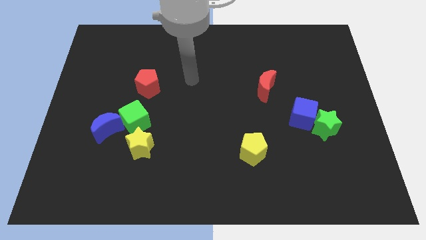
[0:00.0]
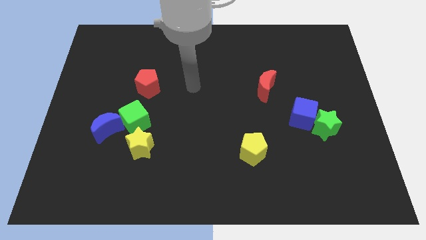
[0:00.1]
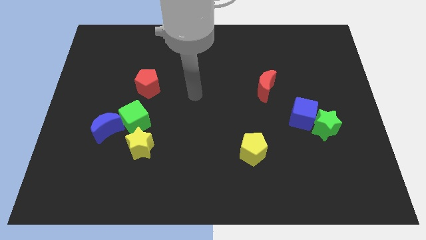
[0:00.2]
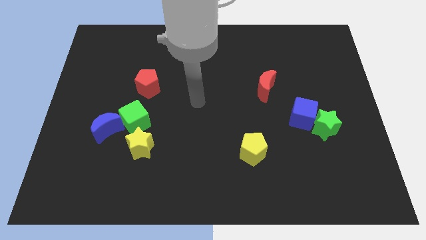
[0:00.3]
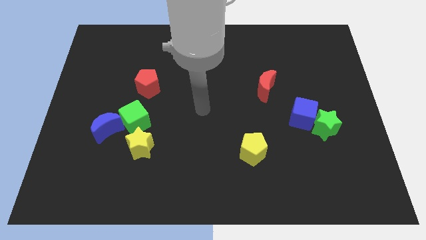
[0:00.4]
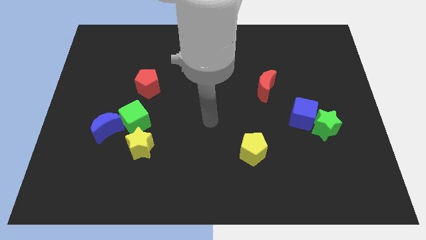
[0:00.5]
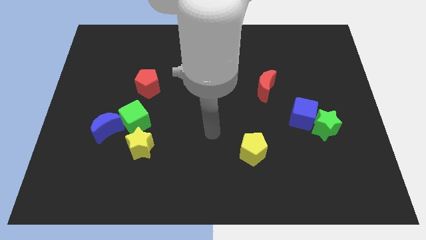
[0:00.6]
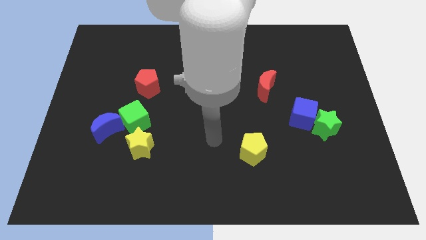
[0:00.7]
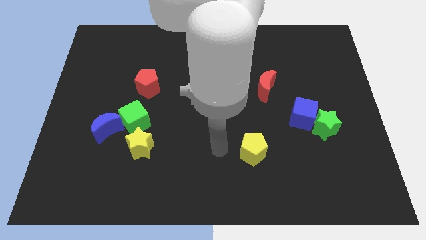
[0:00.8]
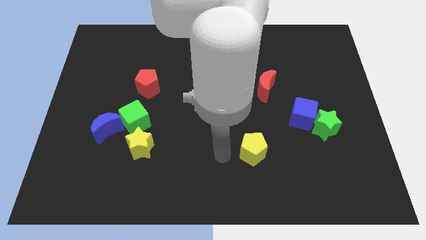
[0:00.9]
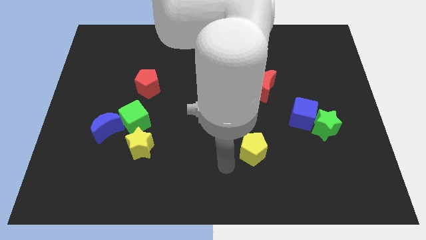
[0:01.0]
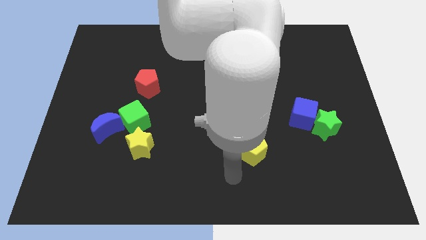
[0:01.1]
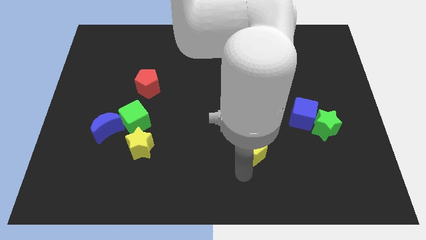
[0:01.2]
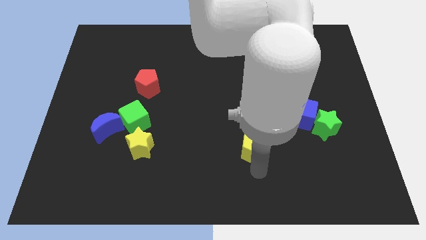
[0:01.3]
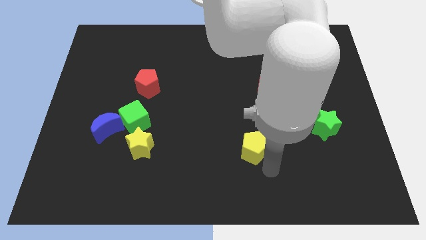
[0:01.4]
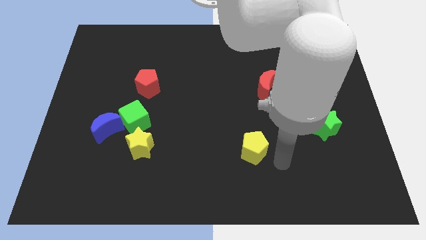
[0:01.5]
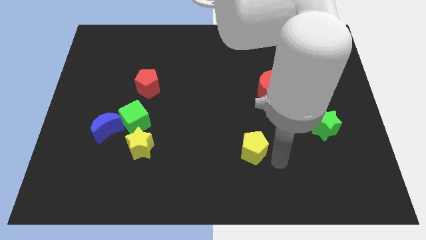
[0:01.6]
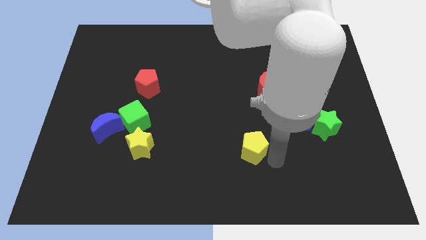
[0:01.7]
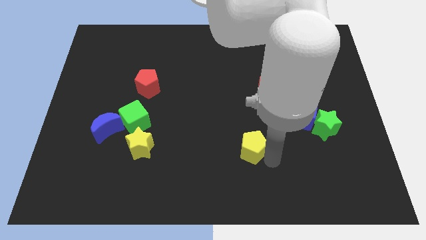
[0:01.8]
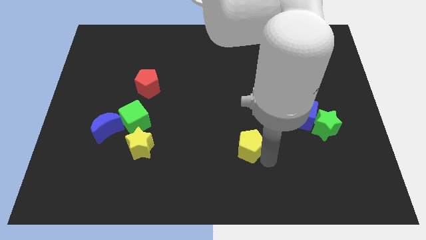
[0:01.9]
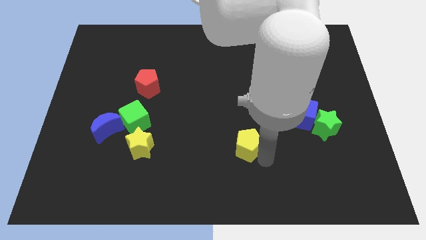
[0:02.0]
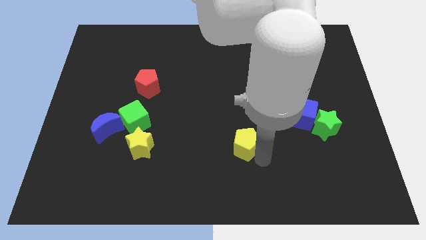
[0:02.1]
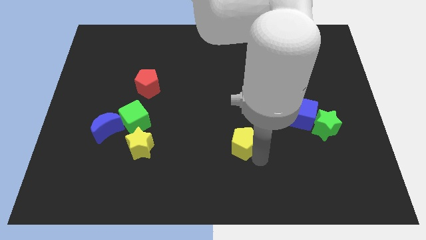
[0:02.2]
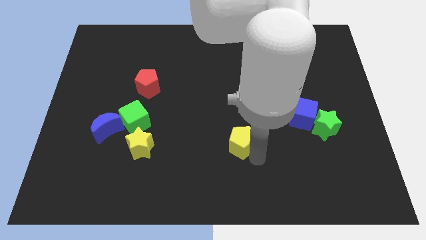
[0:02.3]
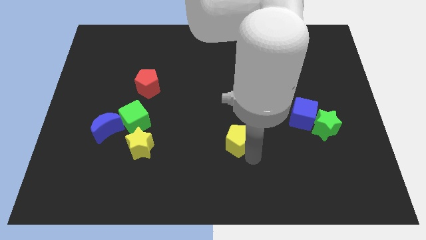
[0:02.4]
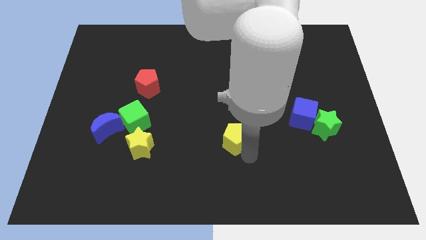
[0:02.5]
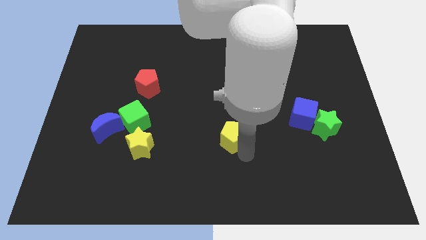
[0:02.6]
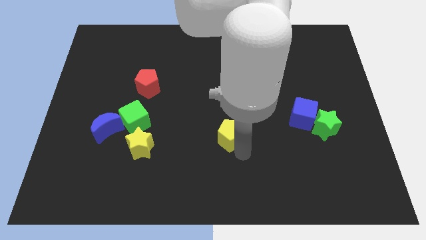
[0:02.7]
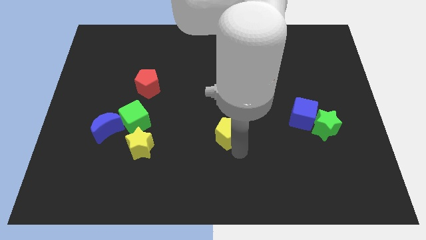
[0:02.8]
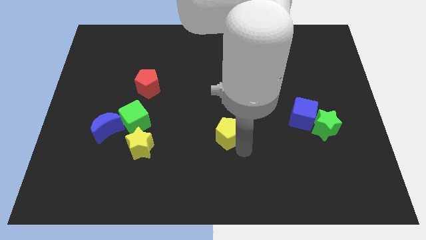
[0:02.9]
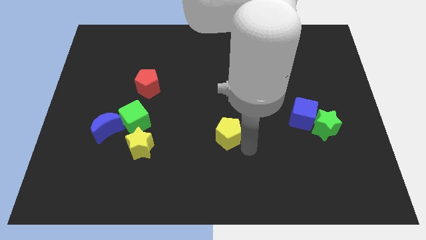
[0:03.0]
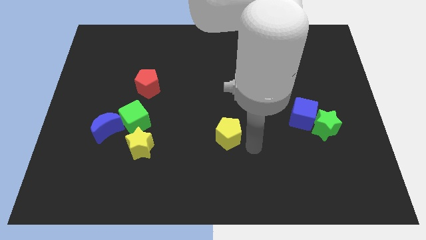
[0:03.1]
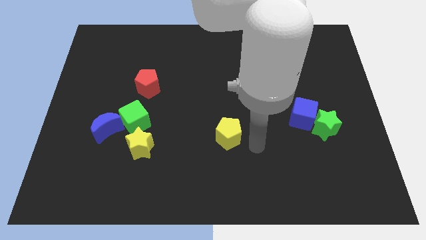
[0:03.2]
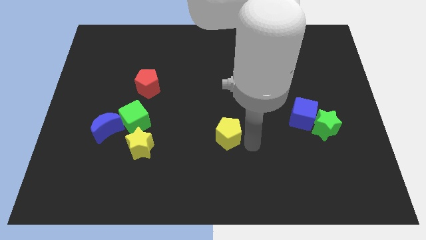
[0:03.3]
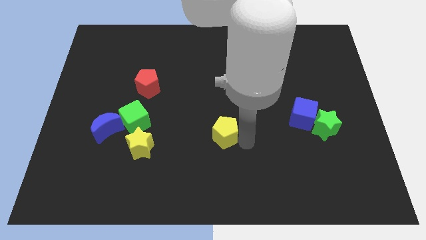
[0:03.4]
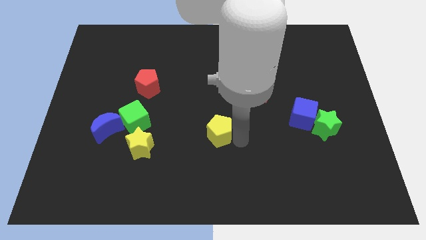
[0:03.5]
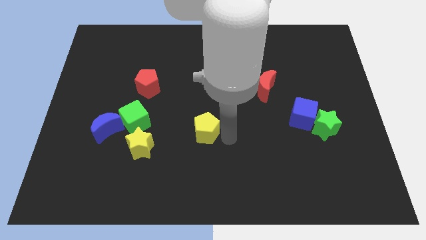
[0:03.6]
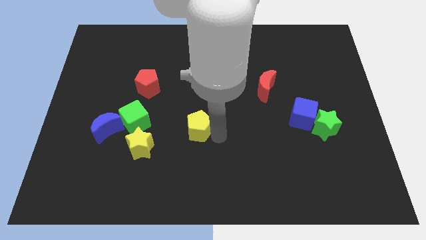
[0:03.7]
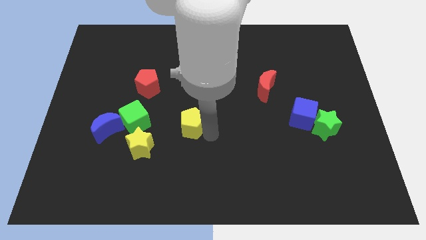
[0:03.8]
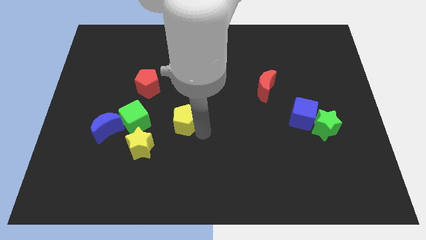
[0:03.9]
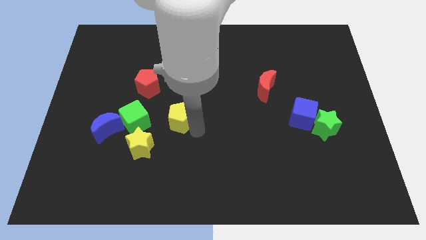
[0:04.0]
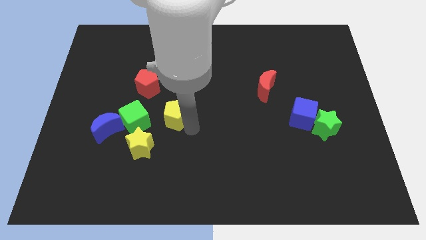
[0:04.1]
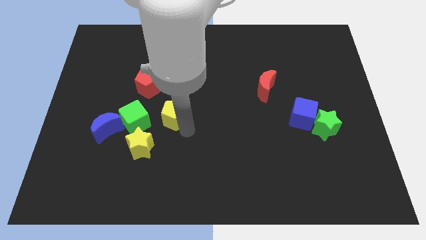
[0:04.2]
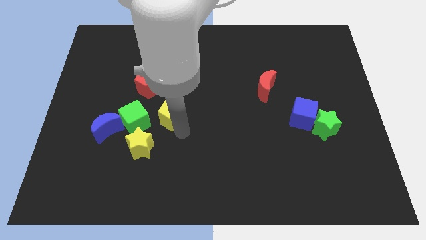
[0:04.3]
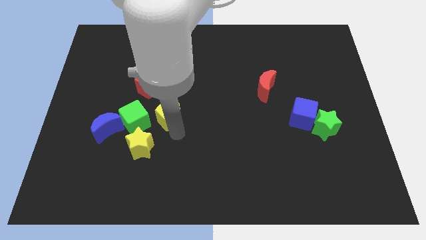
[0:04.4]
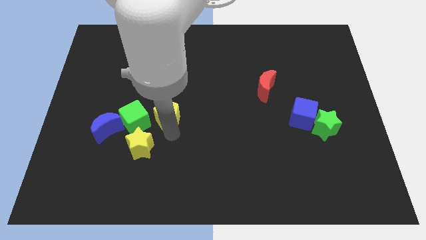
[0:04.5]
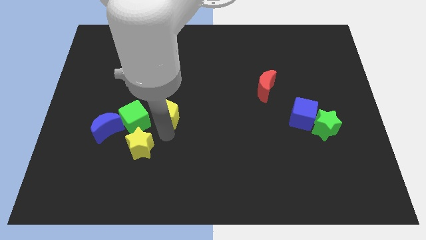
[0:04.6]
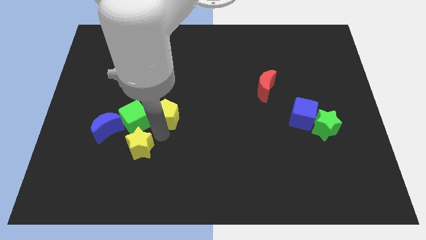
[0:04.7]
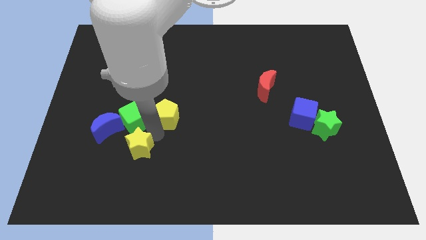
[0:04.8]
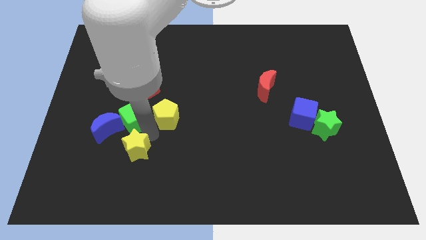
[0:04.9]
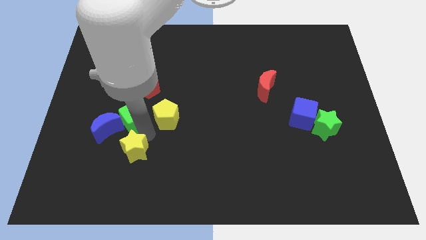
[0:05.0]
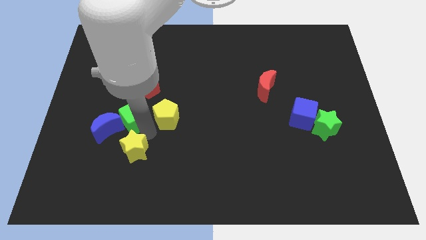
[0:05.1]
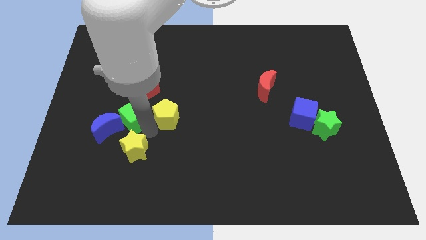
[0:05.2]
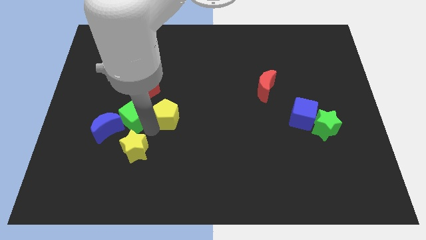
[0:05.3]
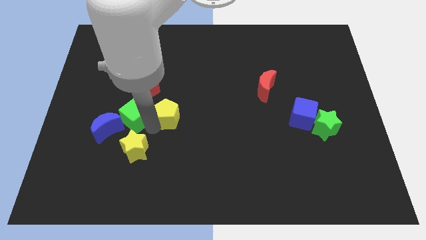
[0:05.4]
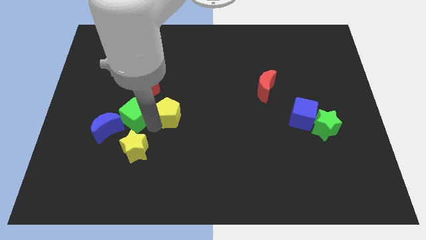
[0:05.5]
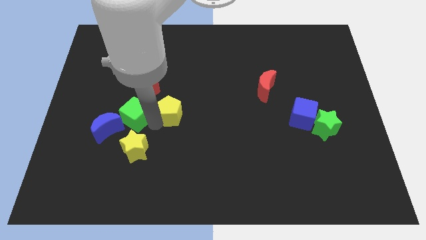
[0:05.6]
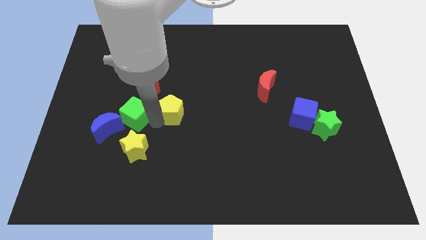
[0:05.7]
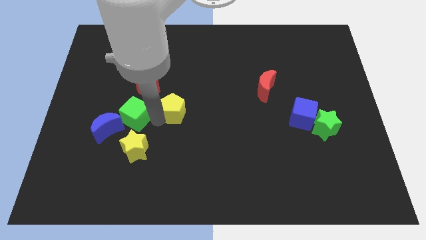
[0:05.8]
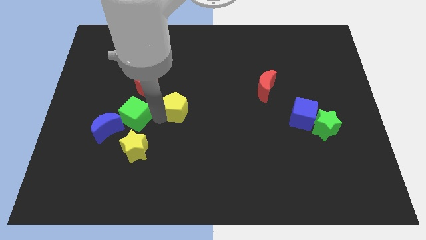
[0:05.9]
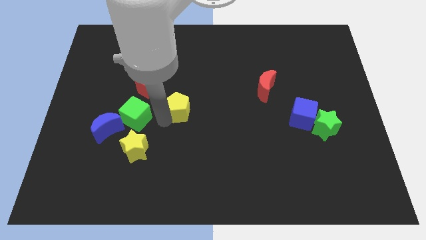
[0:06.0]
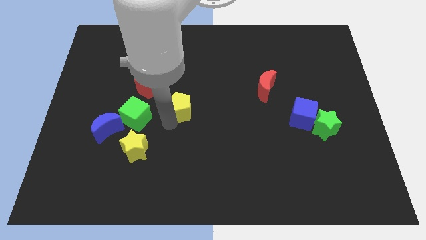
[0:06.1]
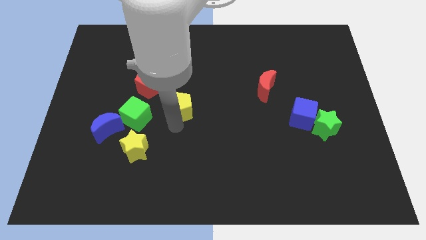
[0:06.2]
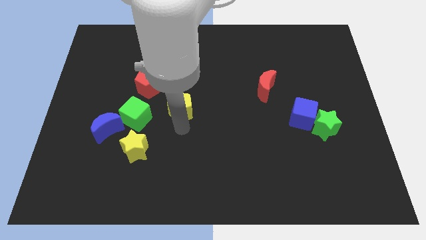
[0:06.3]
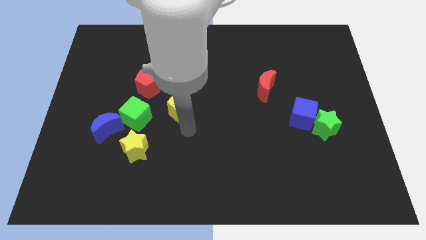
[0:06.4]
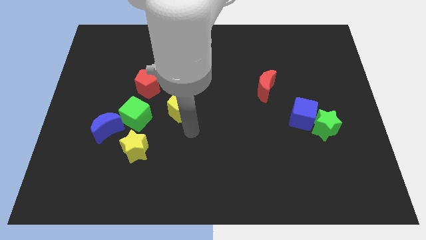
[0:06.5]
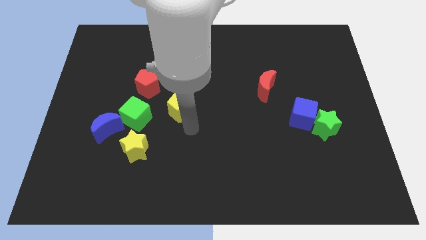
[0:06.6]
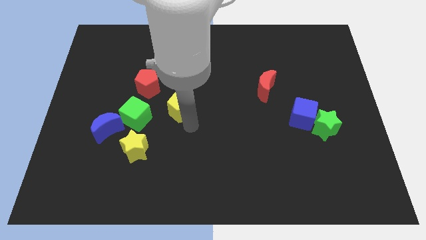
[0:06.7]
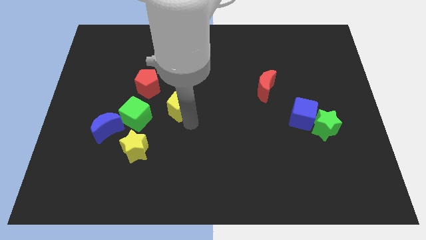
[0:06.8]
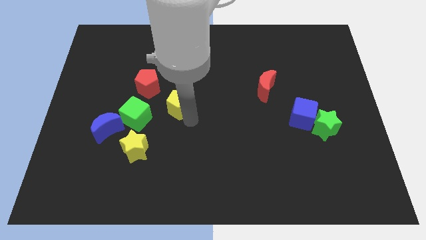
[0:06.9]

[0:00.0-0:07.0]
push the yellow pentagon up and left

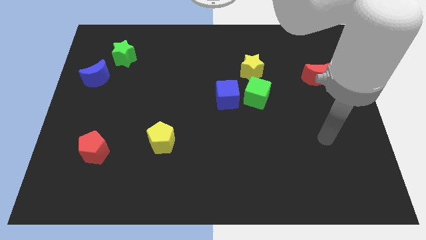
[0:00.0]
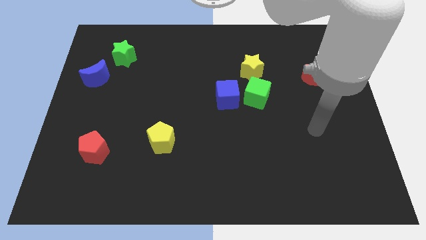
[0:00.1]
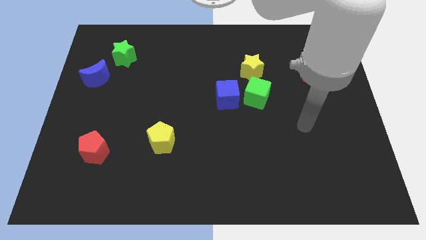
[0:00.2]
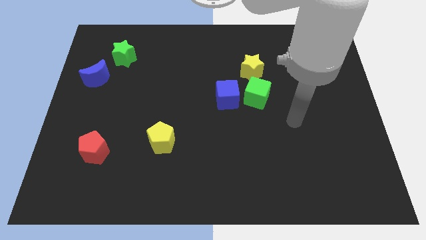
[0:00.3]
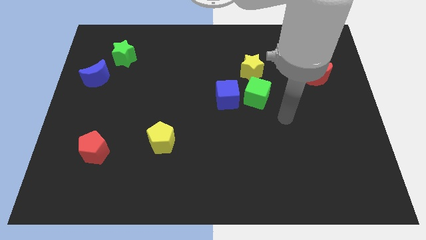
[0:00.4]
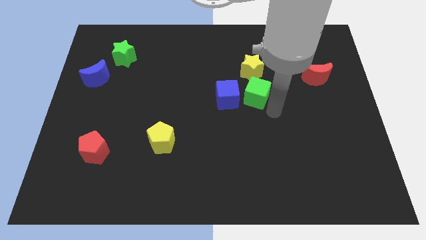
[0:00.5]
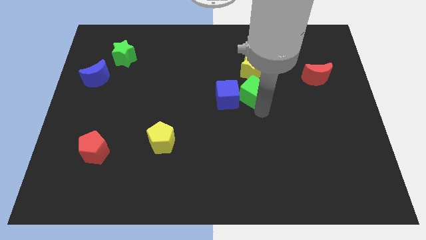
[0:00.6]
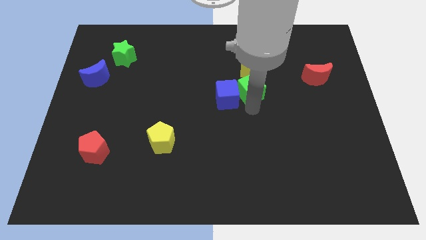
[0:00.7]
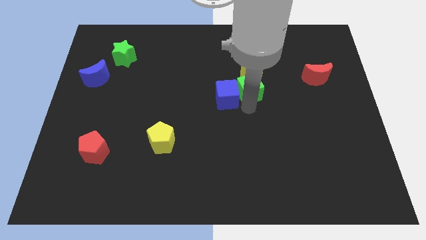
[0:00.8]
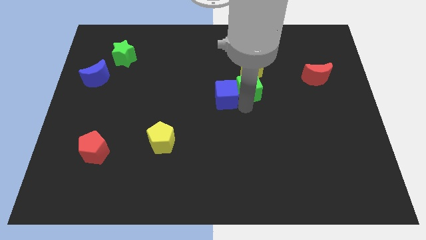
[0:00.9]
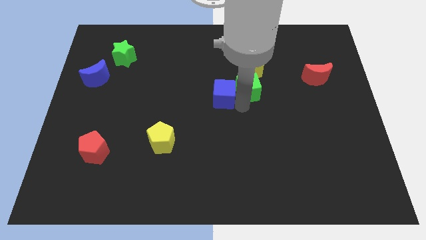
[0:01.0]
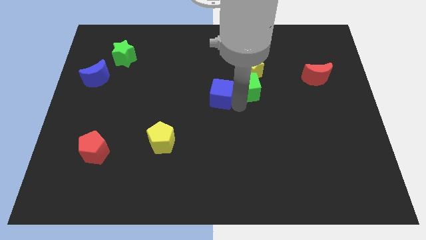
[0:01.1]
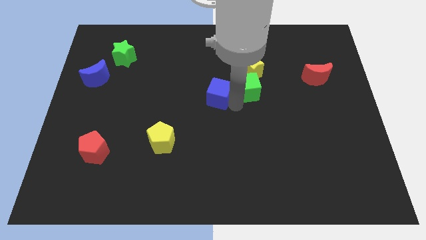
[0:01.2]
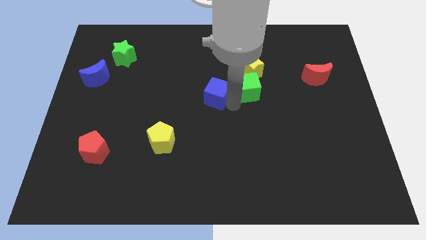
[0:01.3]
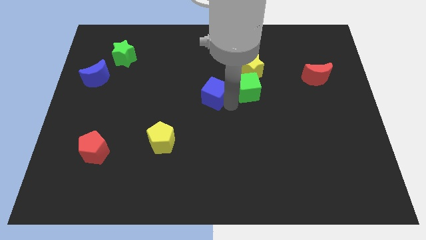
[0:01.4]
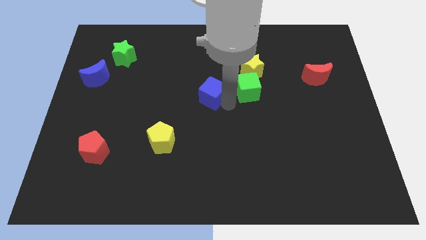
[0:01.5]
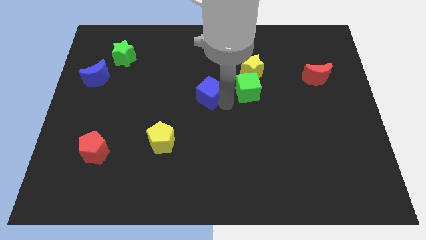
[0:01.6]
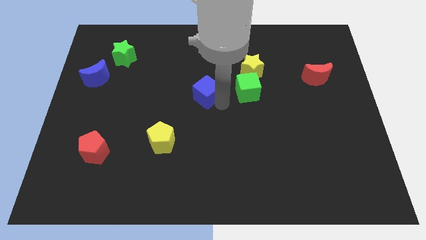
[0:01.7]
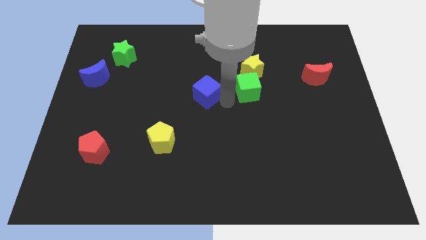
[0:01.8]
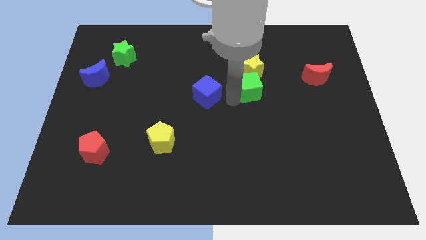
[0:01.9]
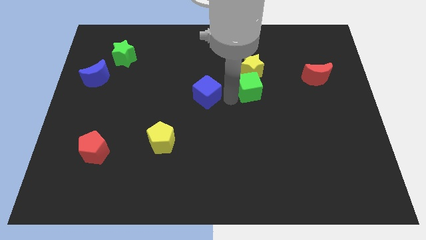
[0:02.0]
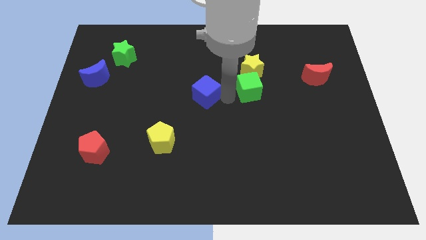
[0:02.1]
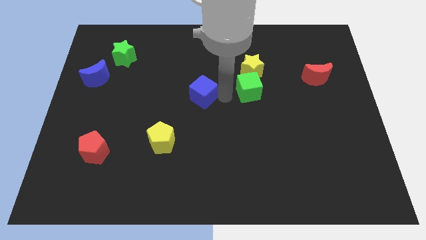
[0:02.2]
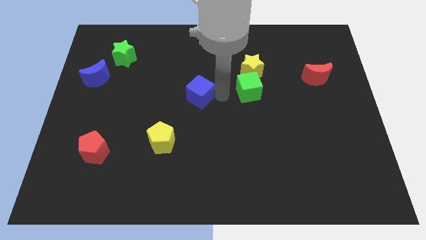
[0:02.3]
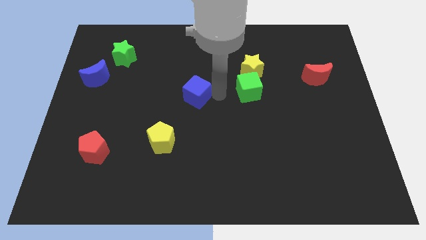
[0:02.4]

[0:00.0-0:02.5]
slightly push the blue cube to the left
